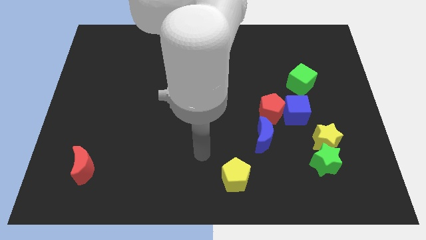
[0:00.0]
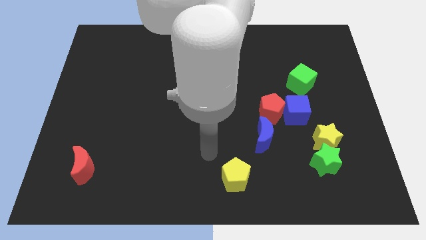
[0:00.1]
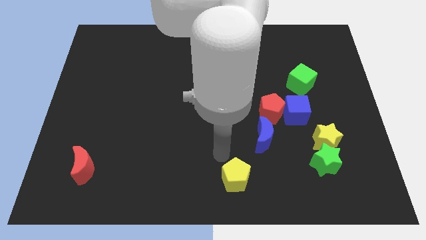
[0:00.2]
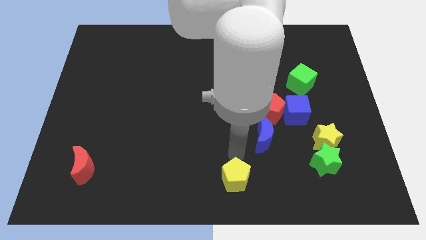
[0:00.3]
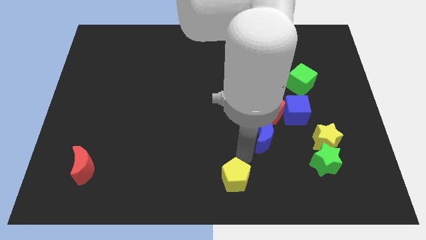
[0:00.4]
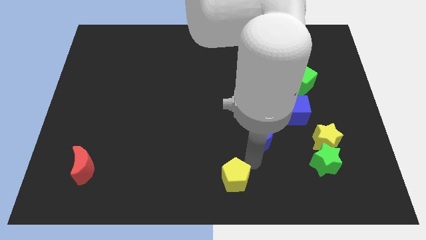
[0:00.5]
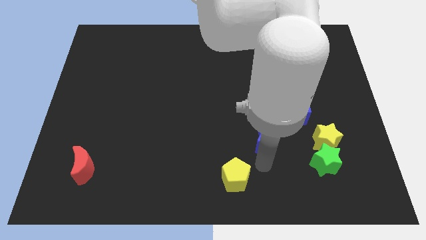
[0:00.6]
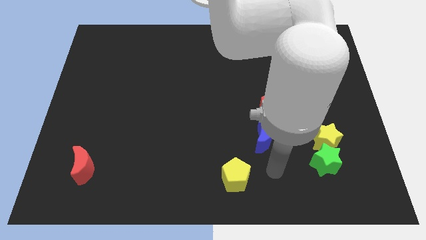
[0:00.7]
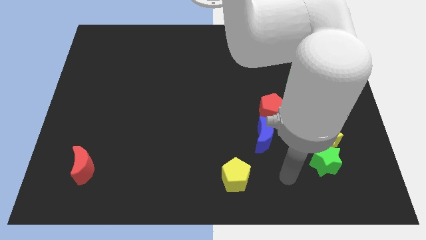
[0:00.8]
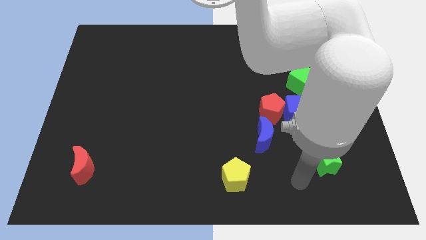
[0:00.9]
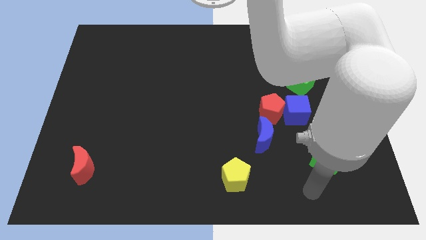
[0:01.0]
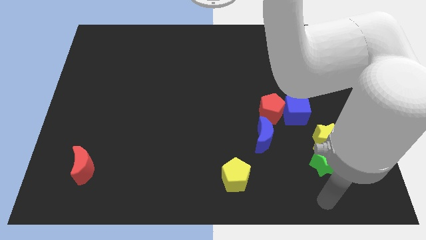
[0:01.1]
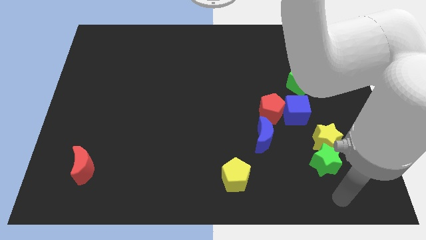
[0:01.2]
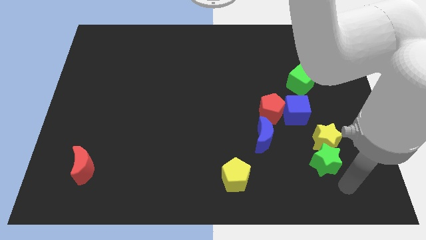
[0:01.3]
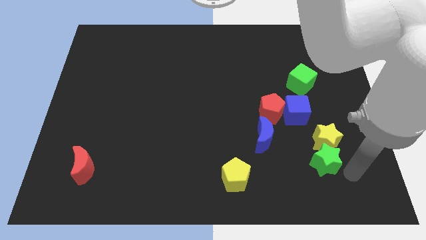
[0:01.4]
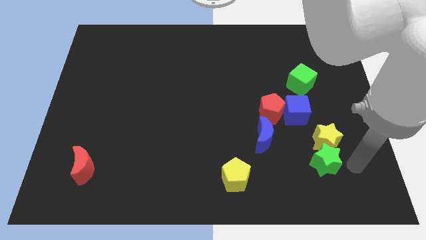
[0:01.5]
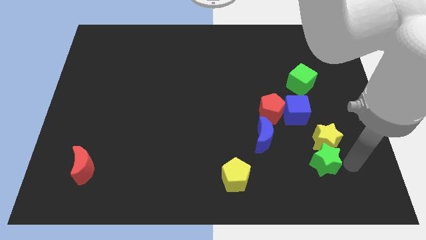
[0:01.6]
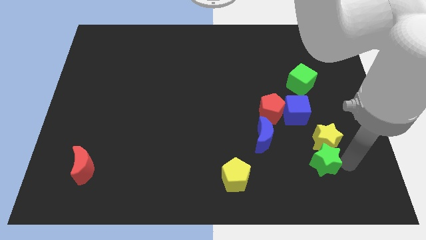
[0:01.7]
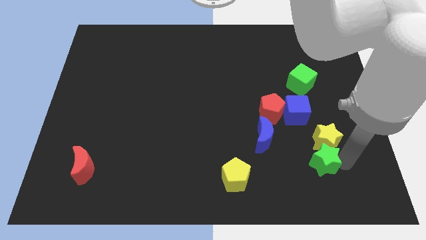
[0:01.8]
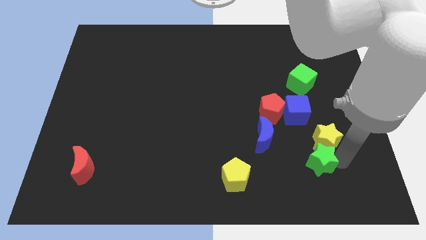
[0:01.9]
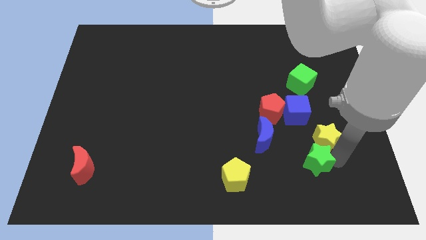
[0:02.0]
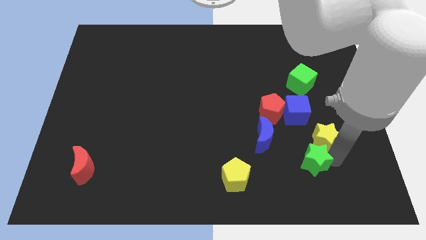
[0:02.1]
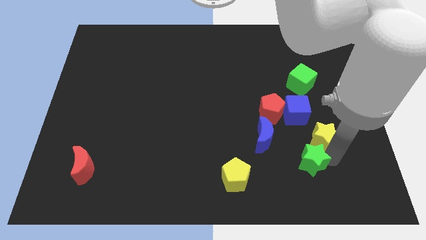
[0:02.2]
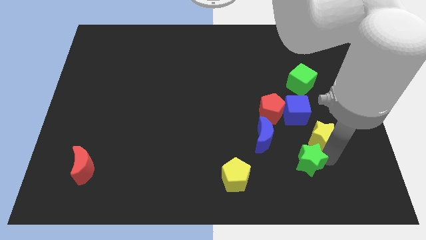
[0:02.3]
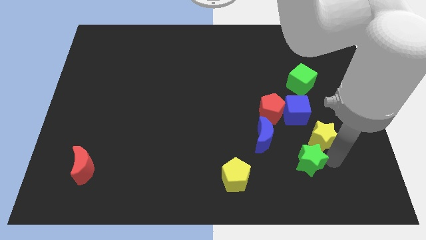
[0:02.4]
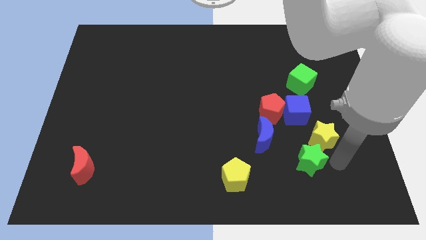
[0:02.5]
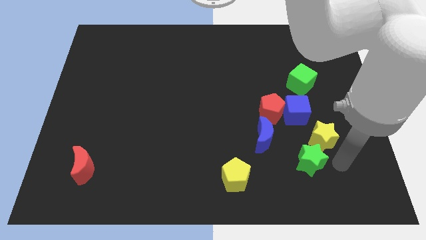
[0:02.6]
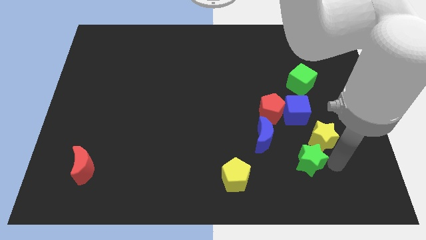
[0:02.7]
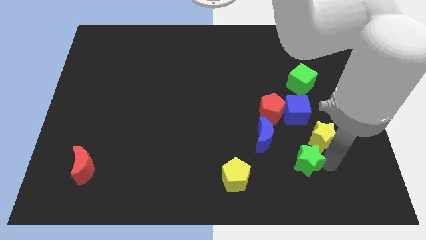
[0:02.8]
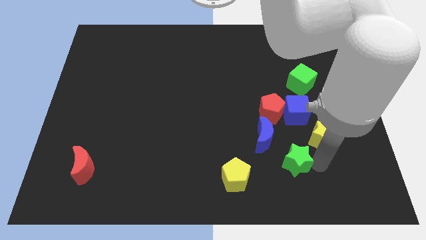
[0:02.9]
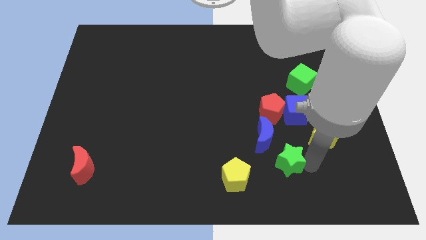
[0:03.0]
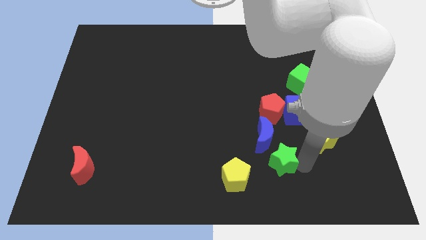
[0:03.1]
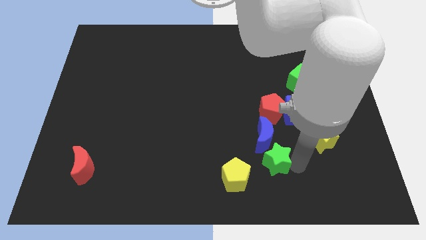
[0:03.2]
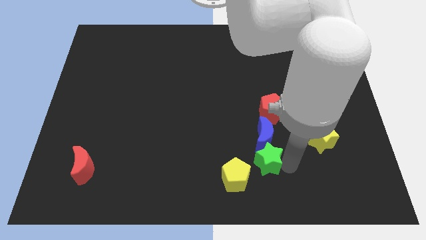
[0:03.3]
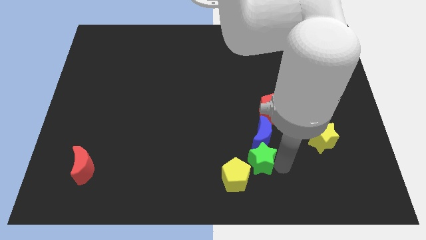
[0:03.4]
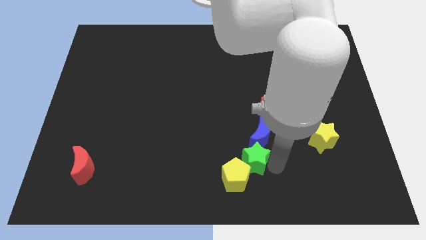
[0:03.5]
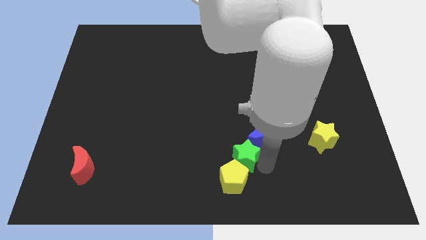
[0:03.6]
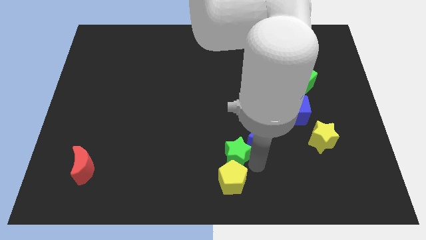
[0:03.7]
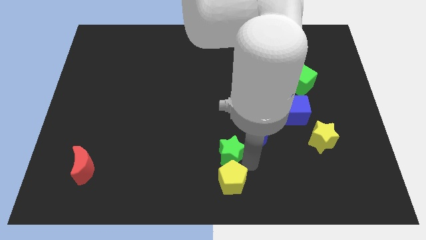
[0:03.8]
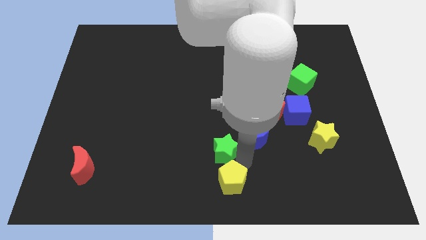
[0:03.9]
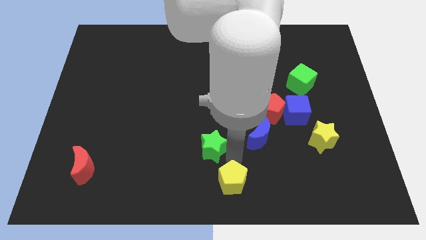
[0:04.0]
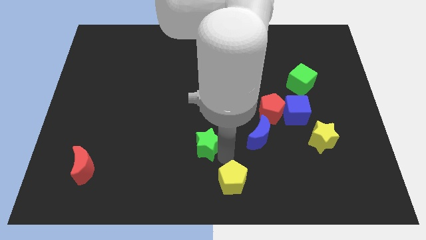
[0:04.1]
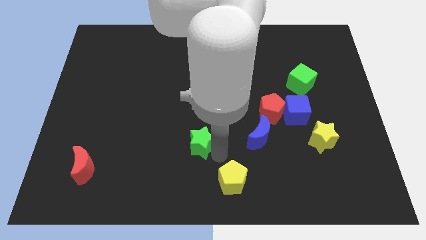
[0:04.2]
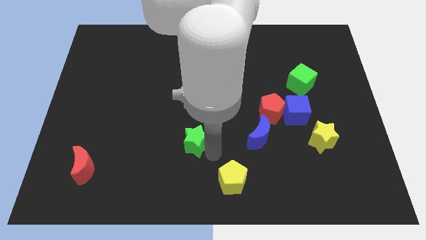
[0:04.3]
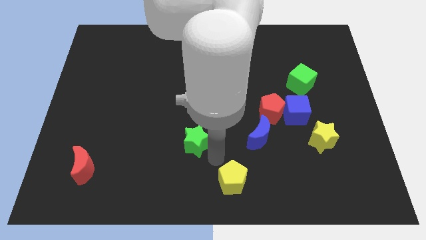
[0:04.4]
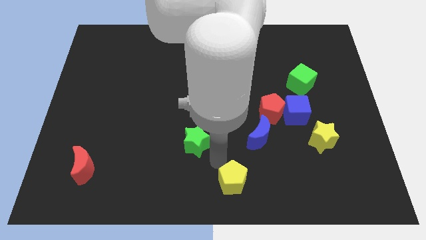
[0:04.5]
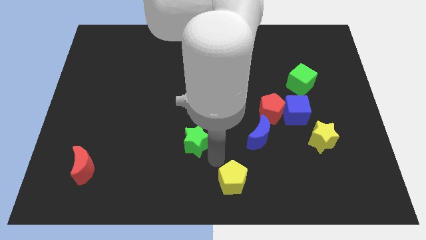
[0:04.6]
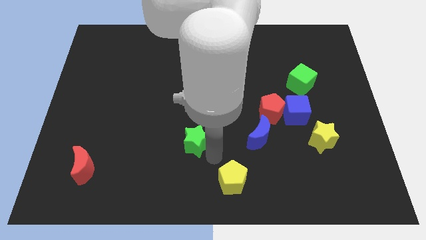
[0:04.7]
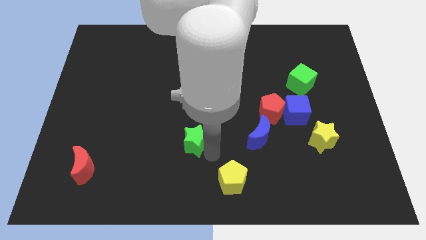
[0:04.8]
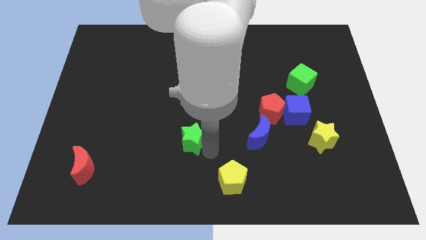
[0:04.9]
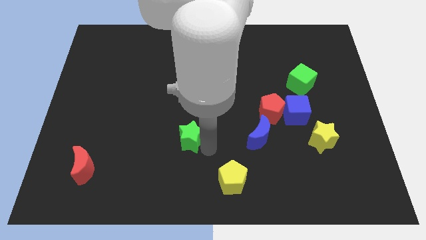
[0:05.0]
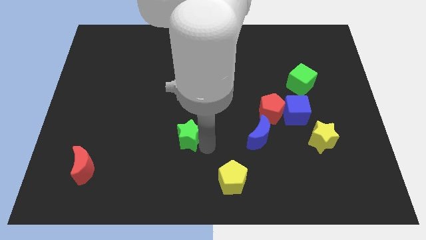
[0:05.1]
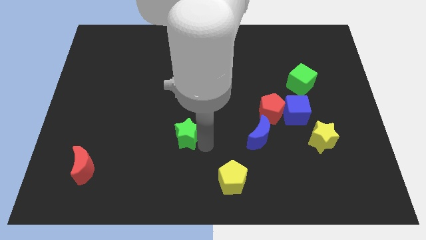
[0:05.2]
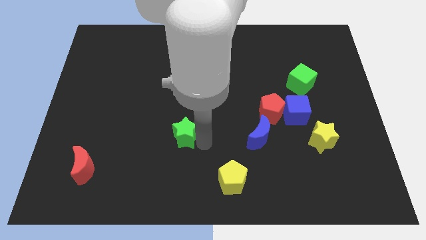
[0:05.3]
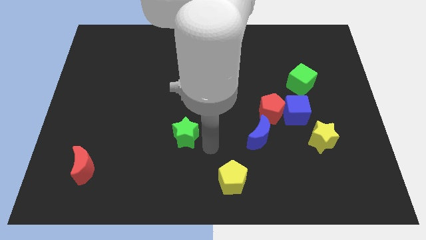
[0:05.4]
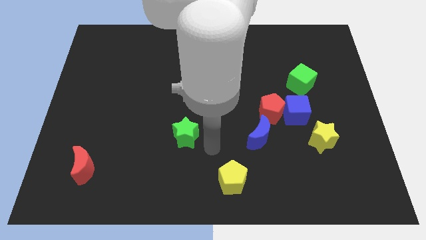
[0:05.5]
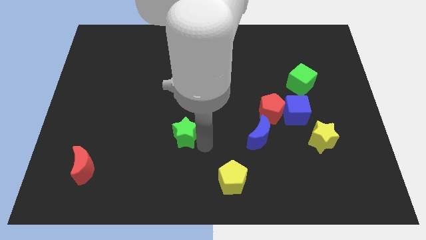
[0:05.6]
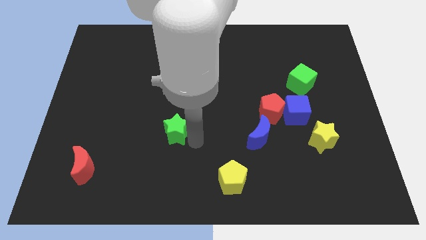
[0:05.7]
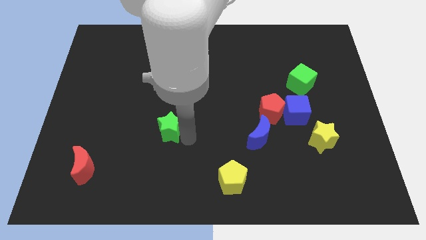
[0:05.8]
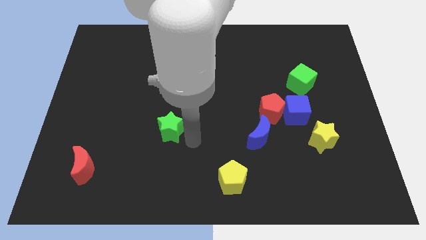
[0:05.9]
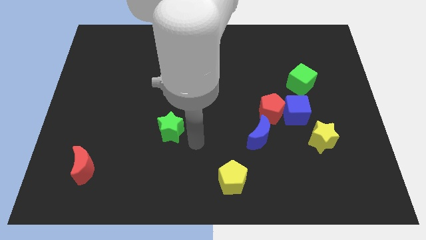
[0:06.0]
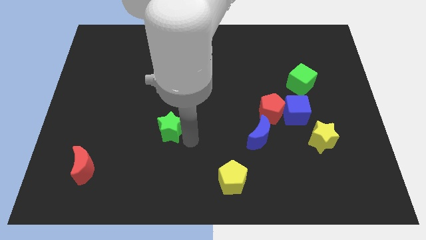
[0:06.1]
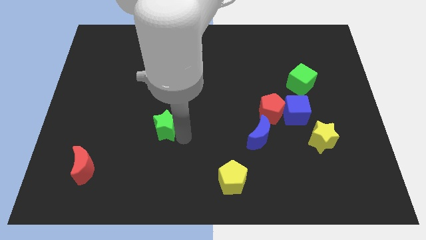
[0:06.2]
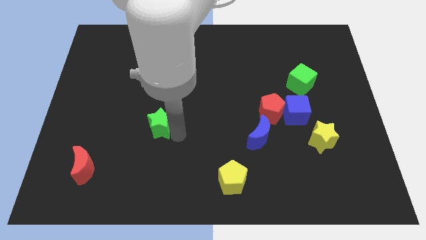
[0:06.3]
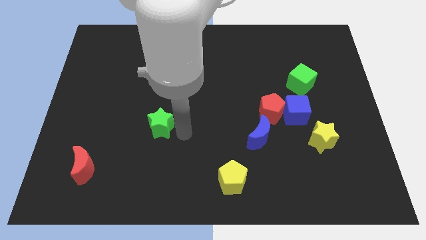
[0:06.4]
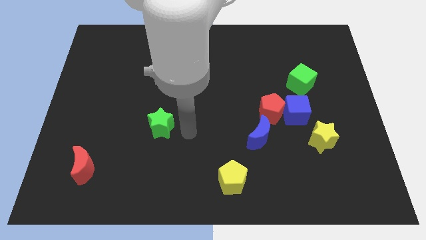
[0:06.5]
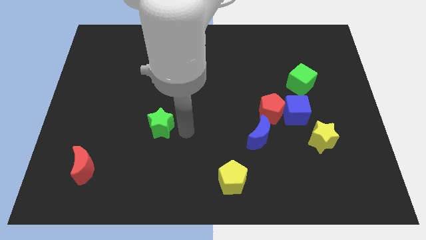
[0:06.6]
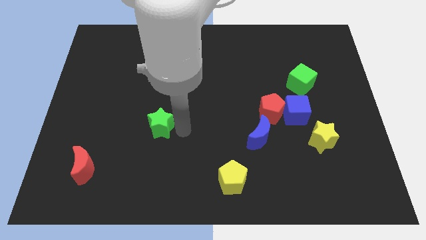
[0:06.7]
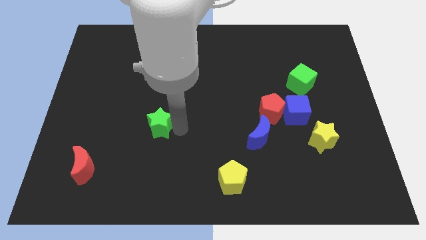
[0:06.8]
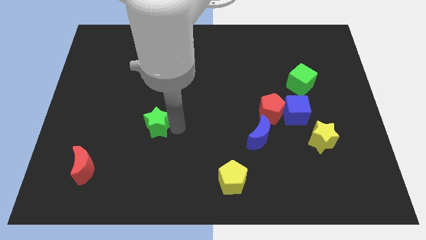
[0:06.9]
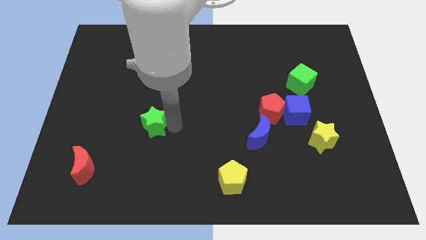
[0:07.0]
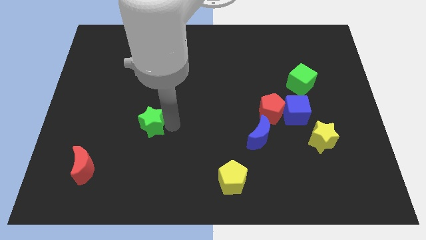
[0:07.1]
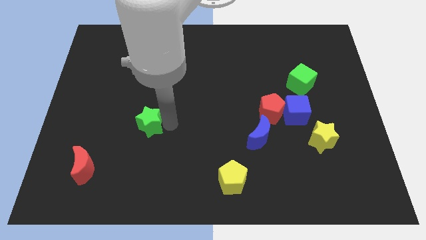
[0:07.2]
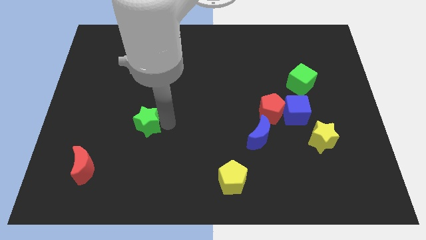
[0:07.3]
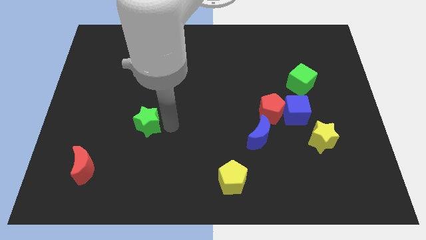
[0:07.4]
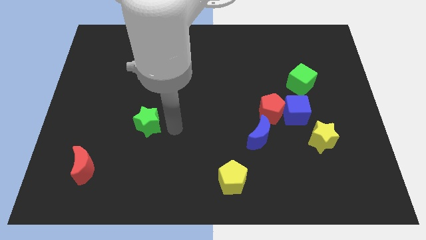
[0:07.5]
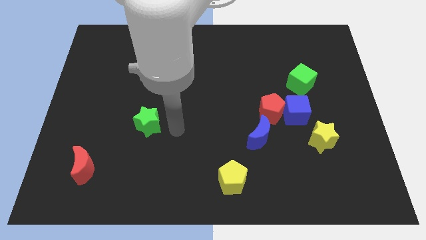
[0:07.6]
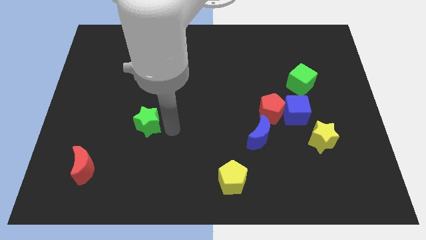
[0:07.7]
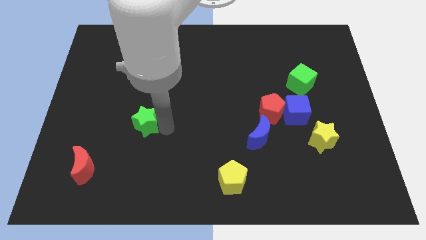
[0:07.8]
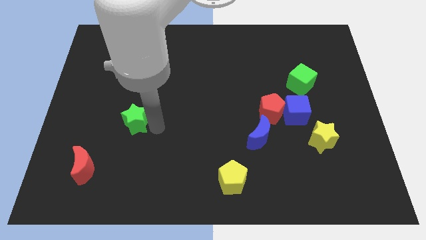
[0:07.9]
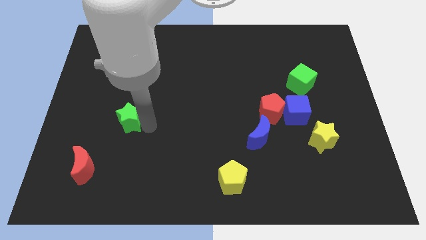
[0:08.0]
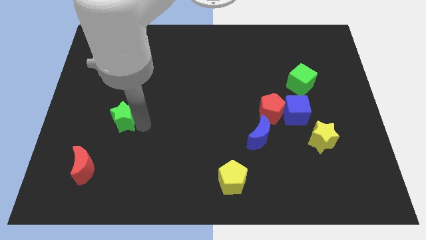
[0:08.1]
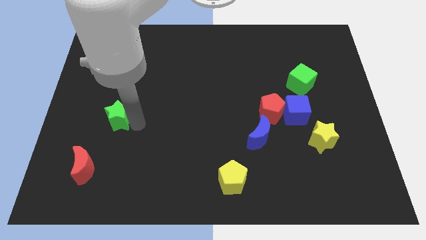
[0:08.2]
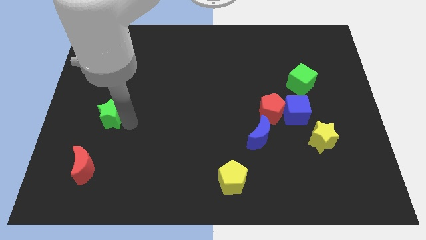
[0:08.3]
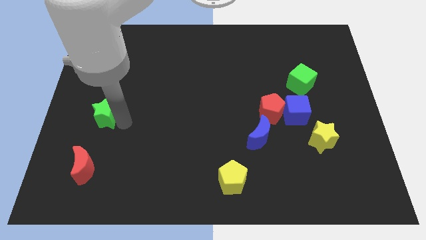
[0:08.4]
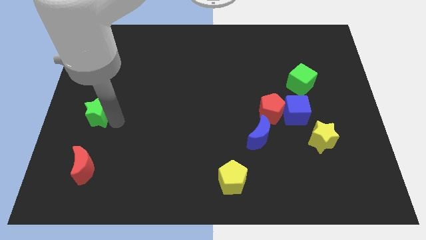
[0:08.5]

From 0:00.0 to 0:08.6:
slide the green star to the left side
